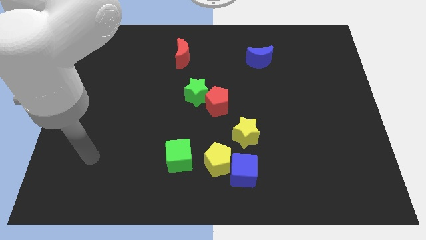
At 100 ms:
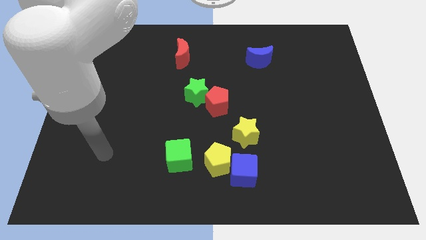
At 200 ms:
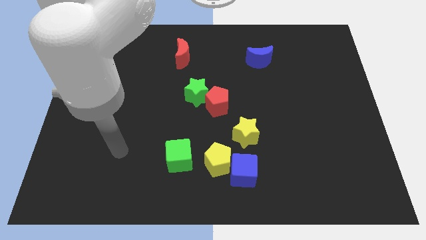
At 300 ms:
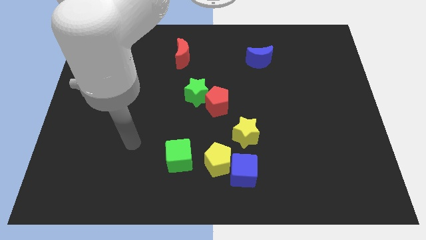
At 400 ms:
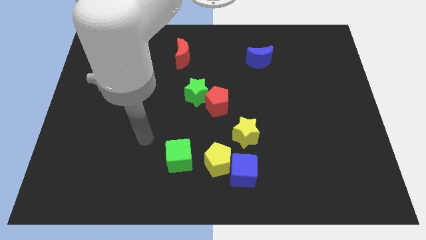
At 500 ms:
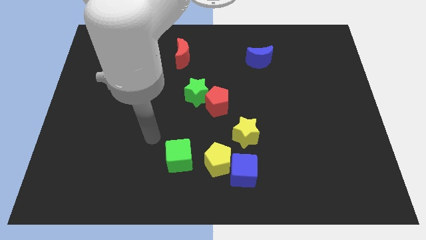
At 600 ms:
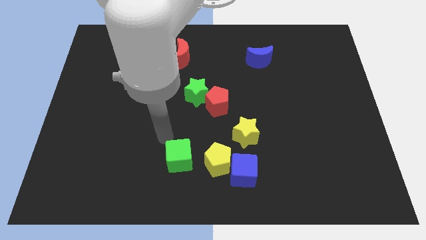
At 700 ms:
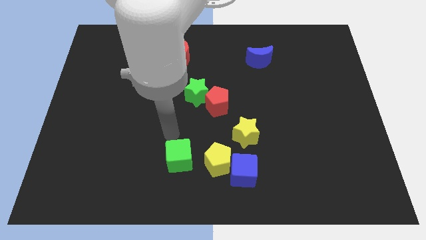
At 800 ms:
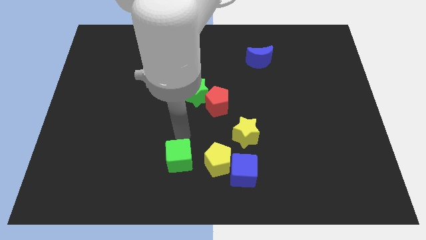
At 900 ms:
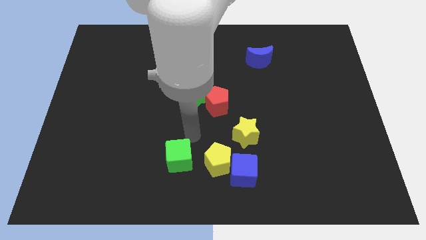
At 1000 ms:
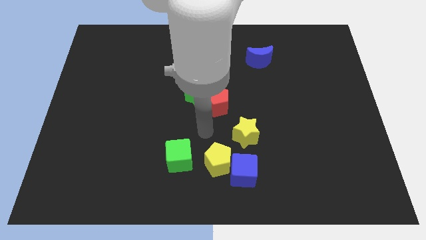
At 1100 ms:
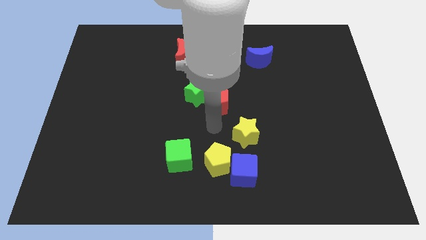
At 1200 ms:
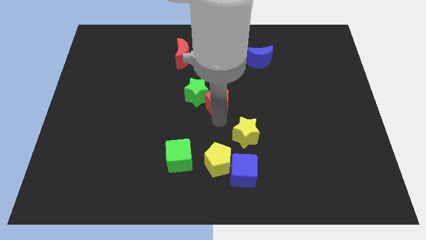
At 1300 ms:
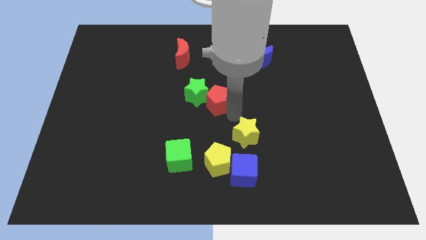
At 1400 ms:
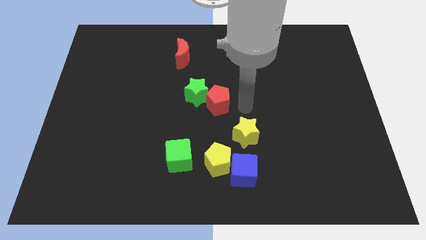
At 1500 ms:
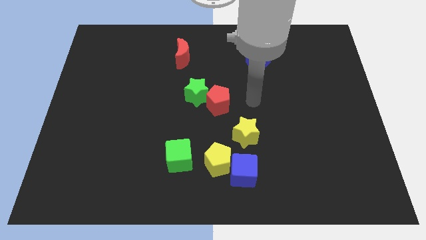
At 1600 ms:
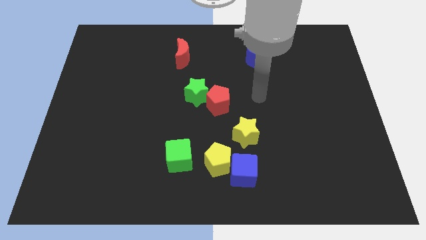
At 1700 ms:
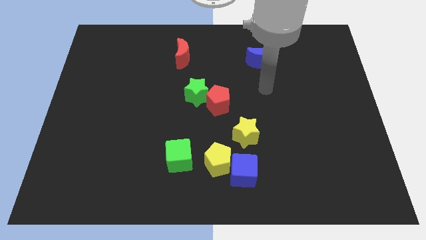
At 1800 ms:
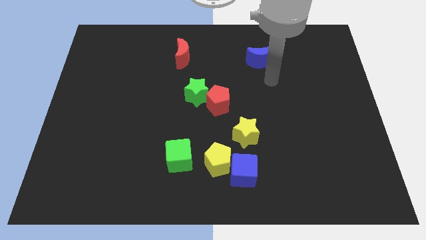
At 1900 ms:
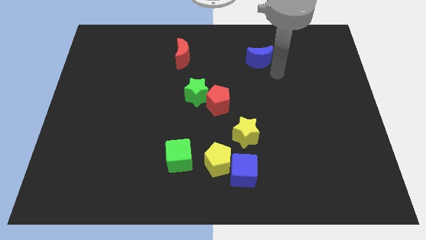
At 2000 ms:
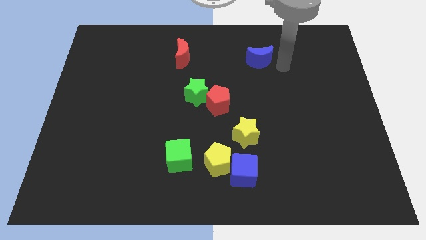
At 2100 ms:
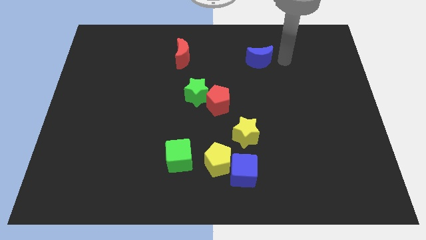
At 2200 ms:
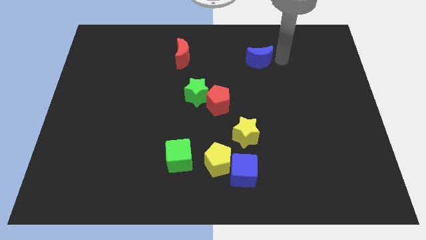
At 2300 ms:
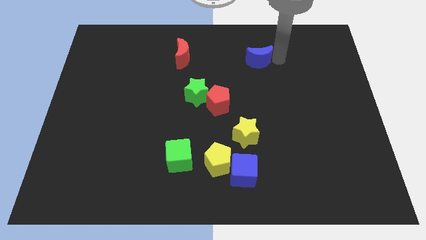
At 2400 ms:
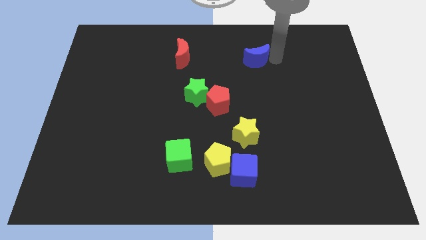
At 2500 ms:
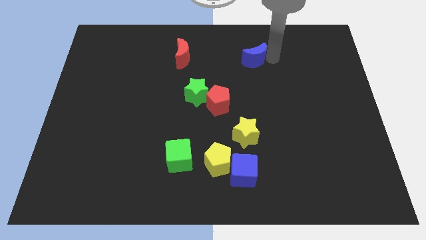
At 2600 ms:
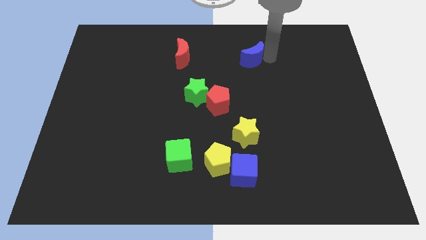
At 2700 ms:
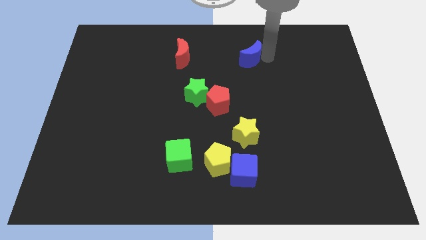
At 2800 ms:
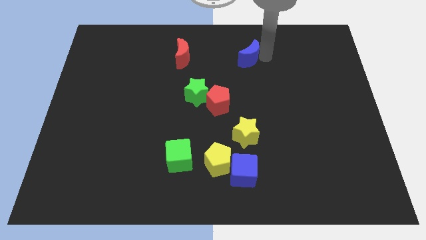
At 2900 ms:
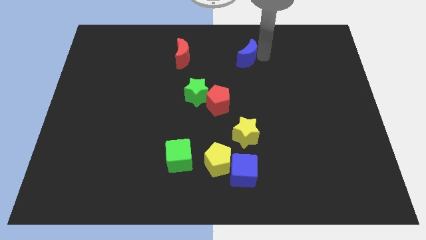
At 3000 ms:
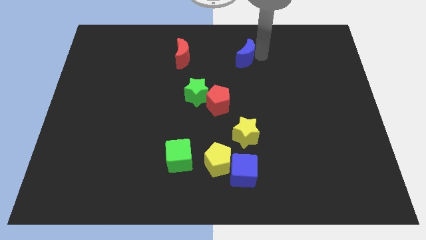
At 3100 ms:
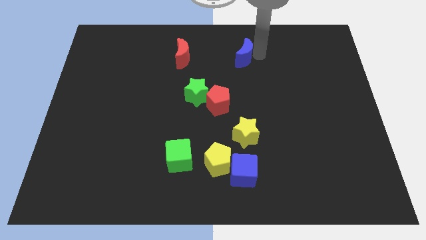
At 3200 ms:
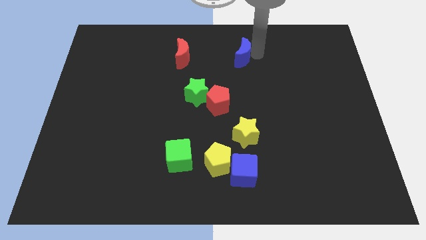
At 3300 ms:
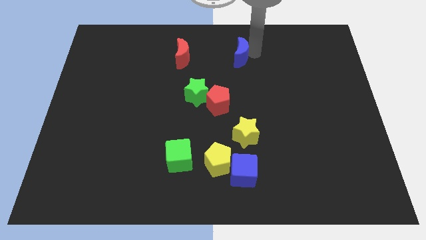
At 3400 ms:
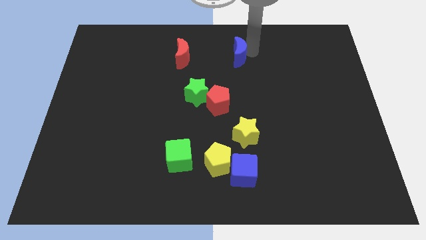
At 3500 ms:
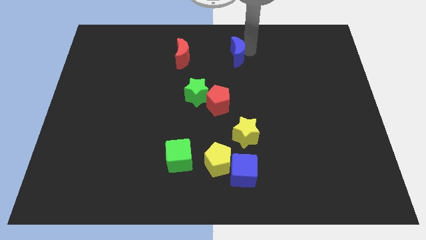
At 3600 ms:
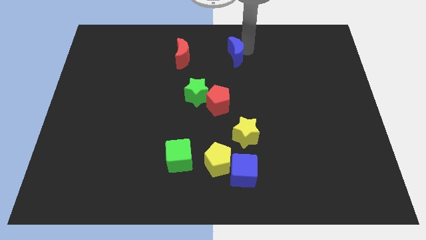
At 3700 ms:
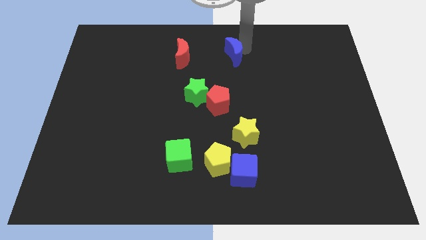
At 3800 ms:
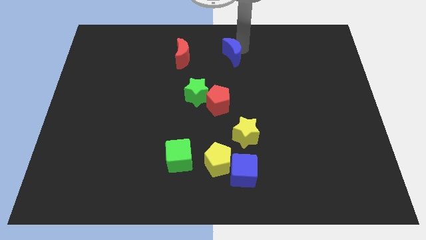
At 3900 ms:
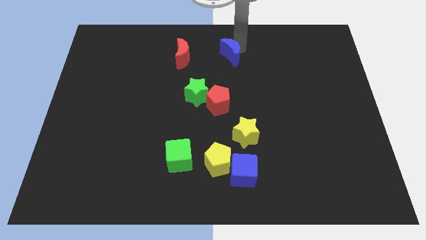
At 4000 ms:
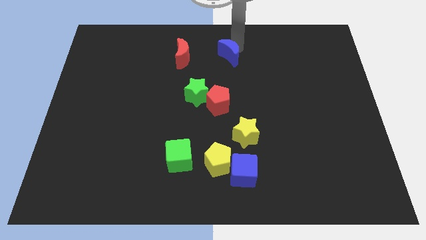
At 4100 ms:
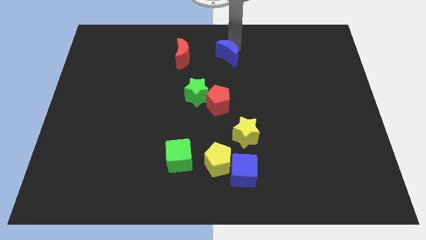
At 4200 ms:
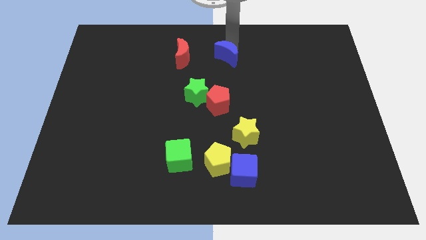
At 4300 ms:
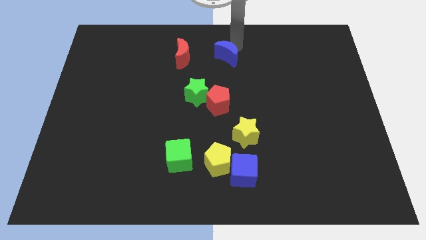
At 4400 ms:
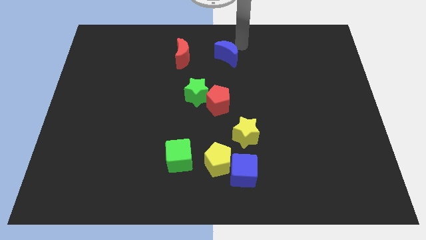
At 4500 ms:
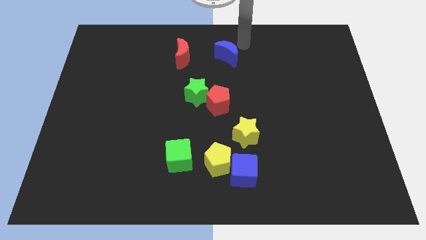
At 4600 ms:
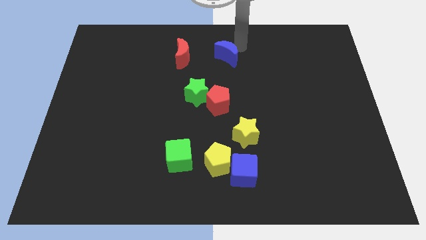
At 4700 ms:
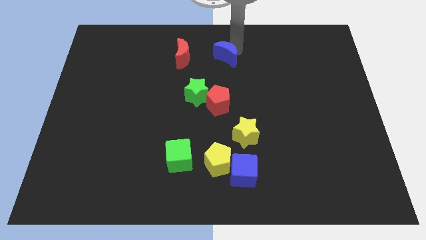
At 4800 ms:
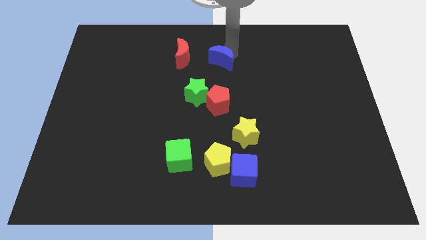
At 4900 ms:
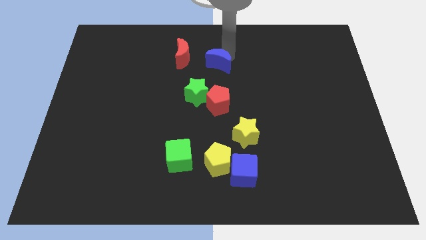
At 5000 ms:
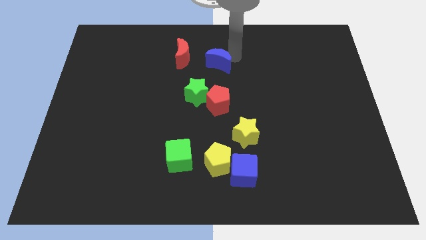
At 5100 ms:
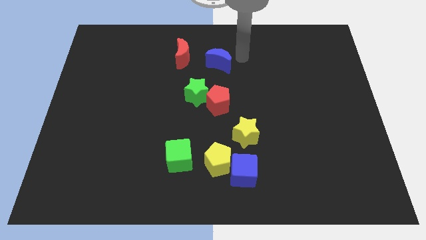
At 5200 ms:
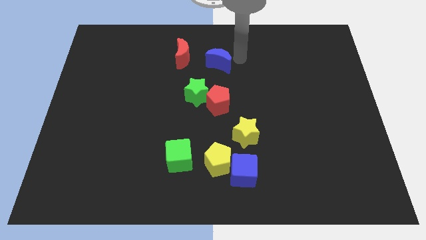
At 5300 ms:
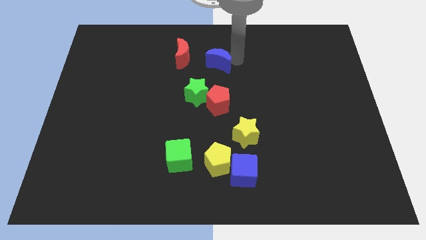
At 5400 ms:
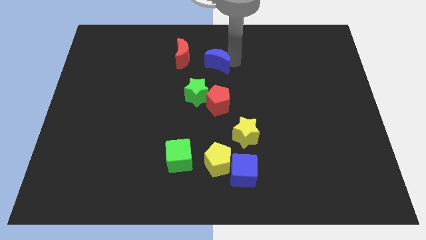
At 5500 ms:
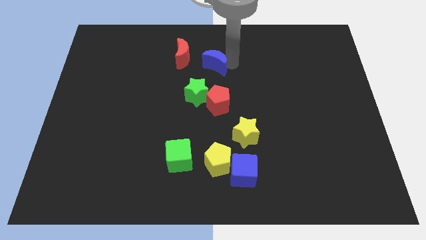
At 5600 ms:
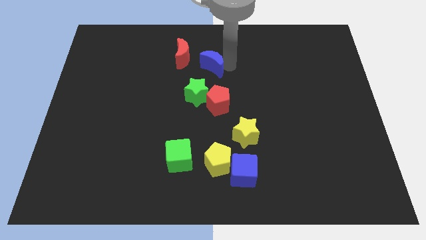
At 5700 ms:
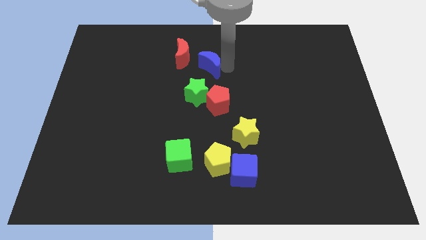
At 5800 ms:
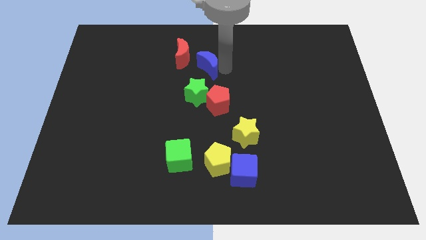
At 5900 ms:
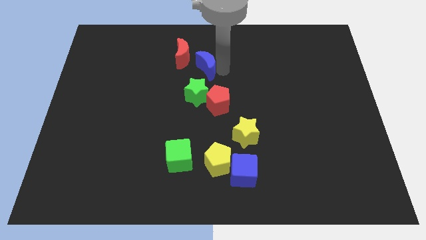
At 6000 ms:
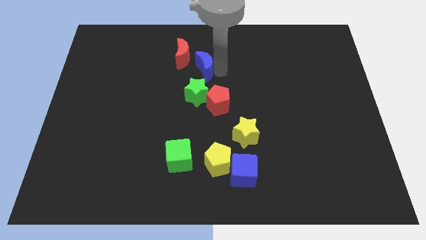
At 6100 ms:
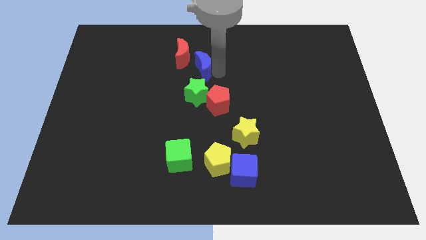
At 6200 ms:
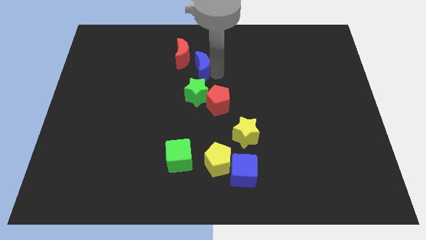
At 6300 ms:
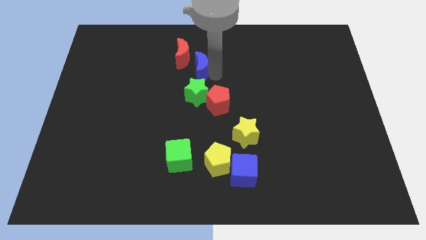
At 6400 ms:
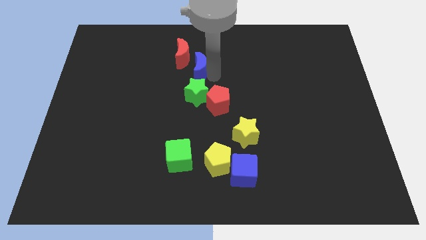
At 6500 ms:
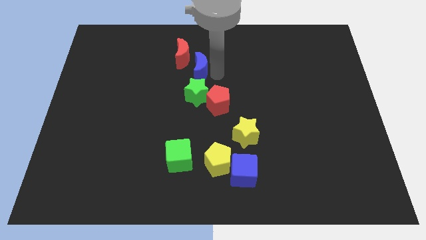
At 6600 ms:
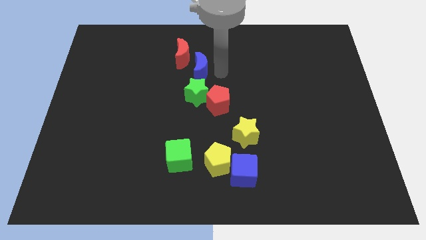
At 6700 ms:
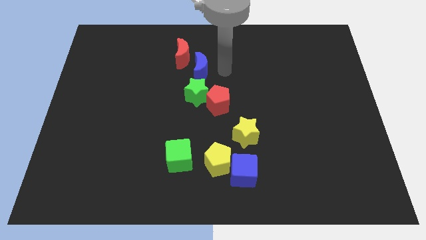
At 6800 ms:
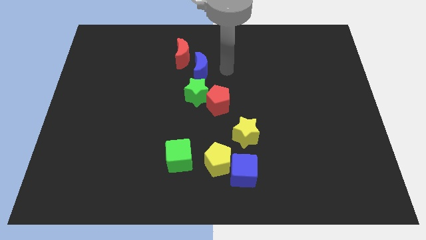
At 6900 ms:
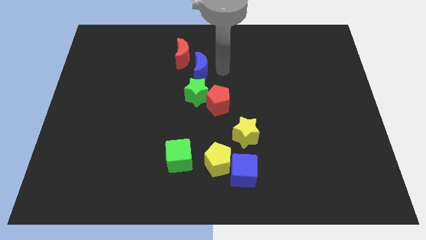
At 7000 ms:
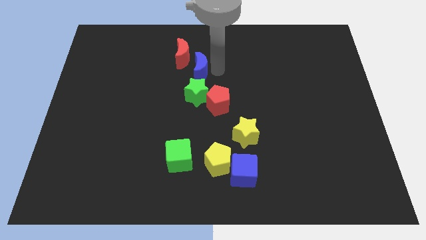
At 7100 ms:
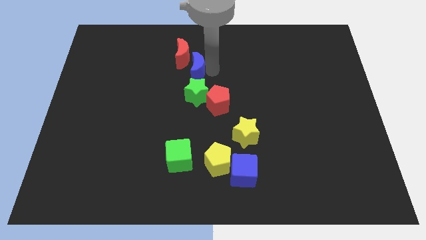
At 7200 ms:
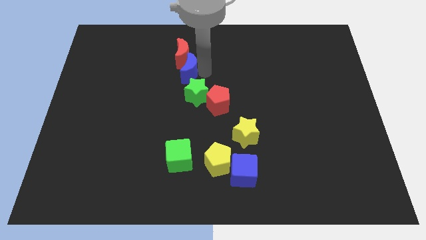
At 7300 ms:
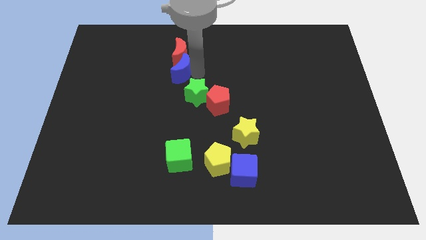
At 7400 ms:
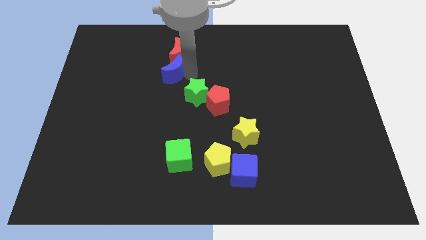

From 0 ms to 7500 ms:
move the blue moon to the left

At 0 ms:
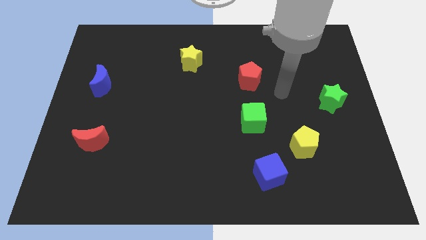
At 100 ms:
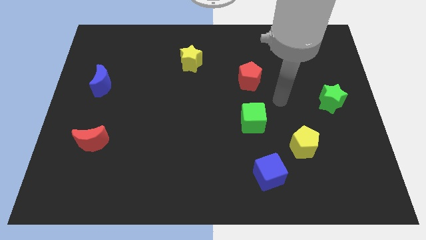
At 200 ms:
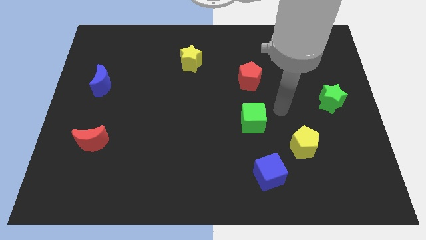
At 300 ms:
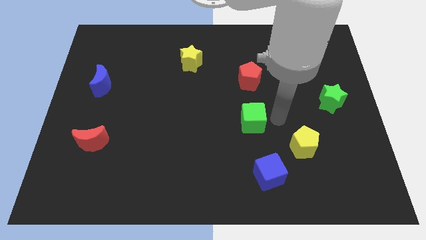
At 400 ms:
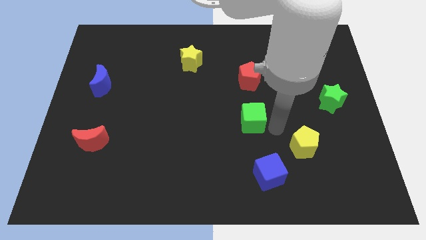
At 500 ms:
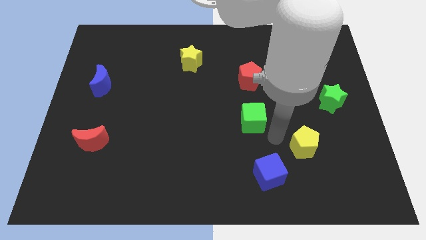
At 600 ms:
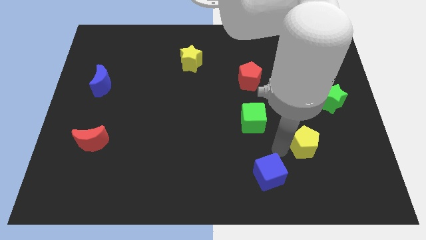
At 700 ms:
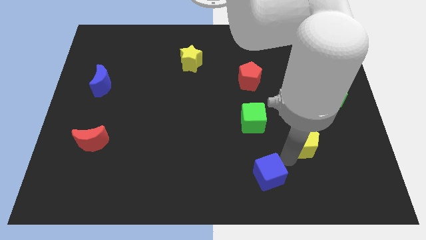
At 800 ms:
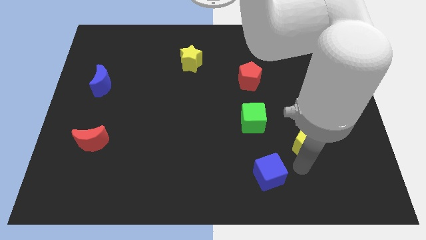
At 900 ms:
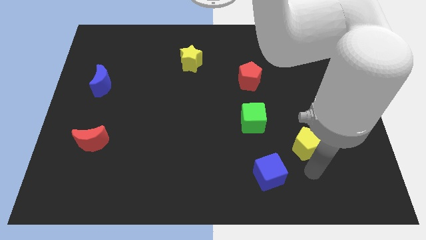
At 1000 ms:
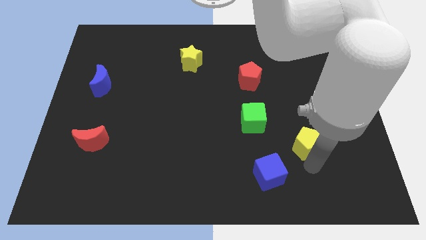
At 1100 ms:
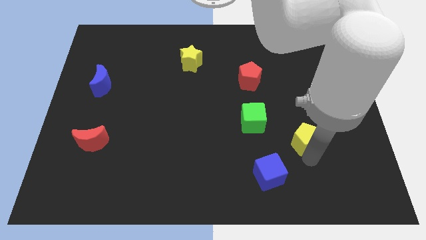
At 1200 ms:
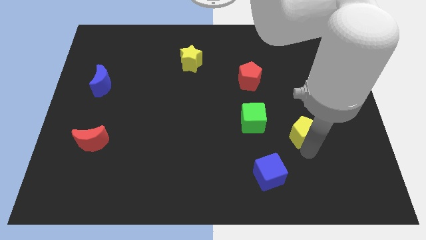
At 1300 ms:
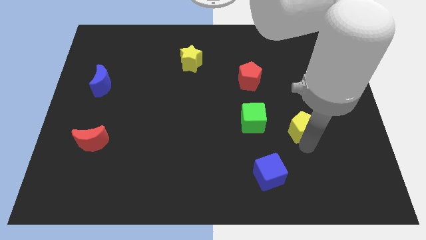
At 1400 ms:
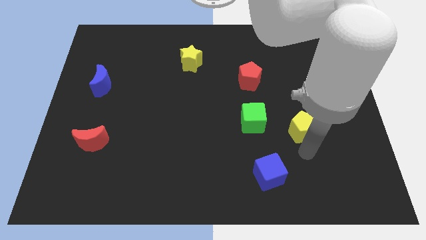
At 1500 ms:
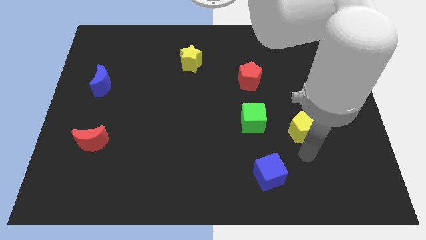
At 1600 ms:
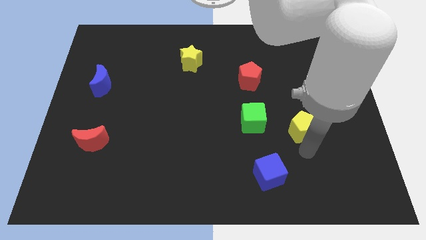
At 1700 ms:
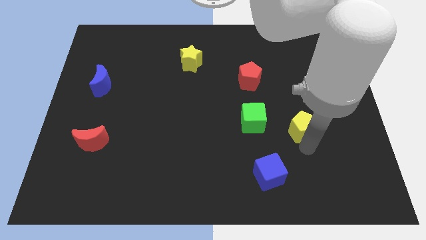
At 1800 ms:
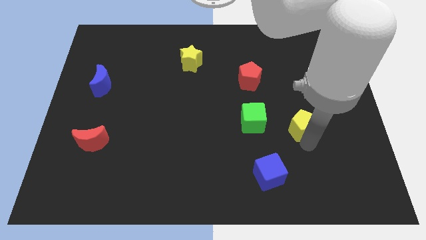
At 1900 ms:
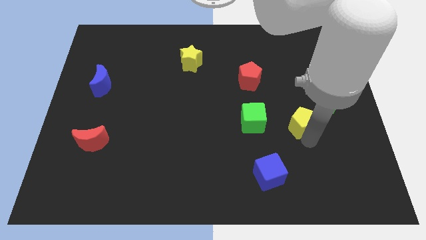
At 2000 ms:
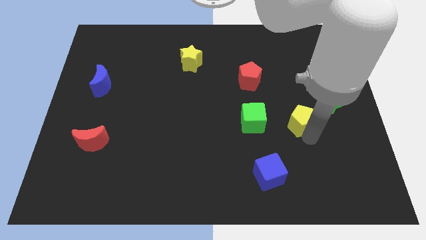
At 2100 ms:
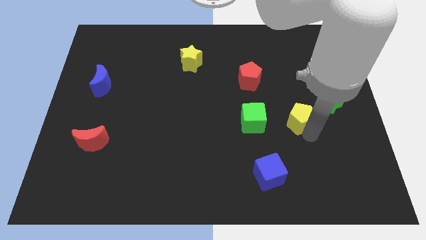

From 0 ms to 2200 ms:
slightly move the yellow pentagon upwards
